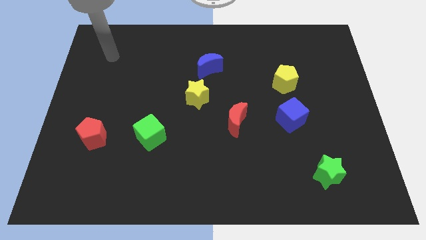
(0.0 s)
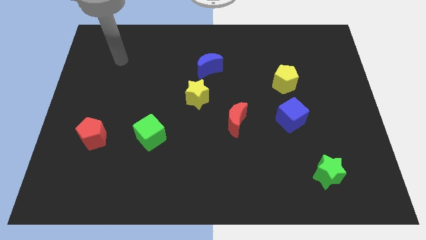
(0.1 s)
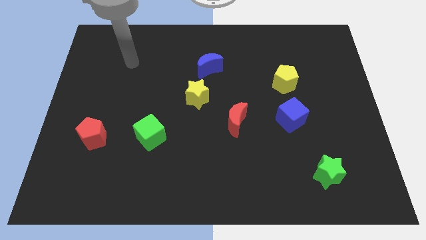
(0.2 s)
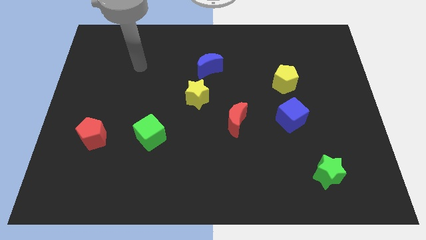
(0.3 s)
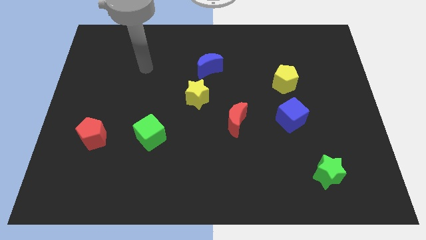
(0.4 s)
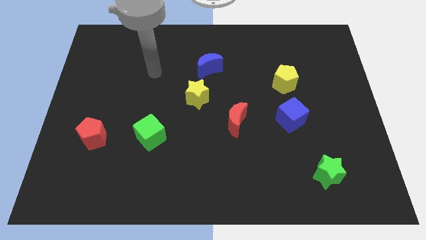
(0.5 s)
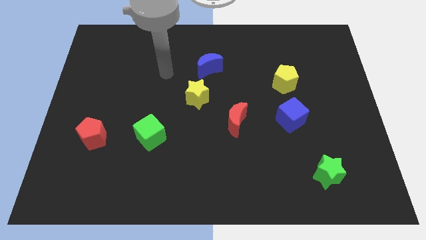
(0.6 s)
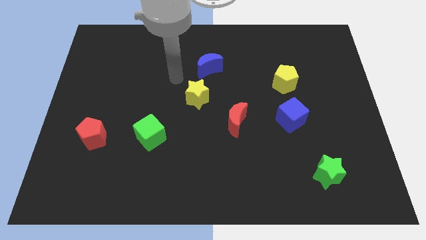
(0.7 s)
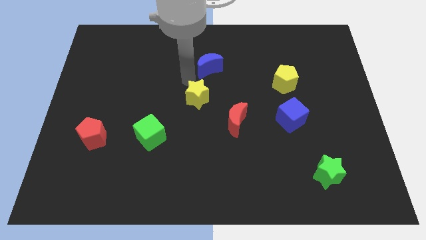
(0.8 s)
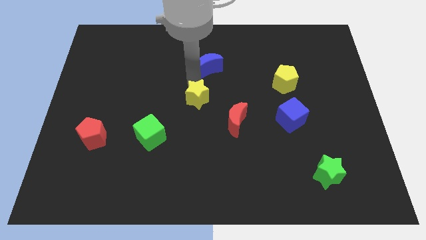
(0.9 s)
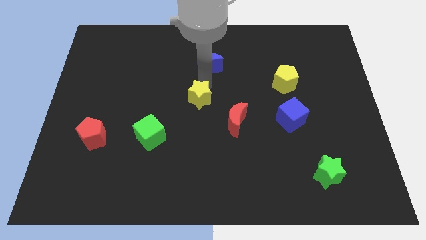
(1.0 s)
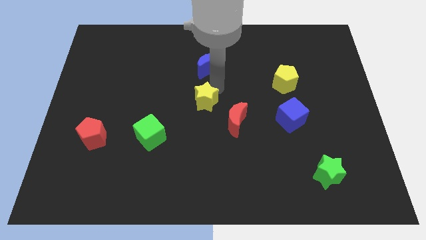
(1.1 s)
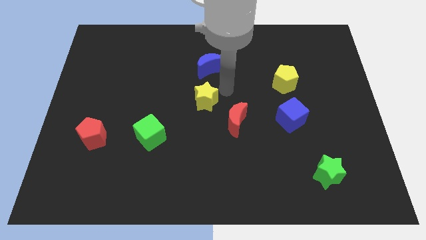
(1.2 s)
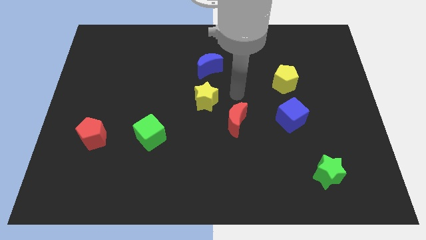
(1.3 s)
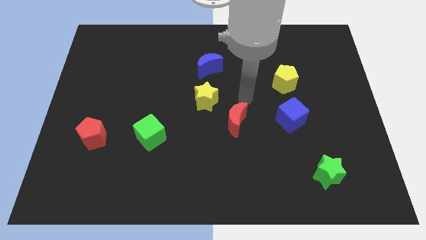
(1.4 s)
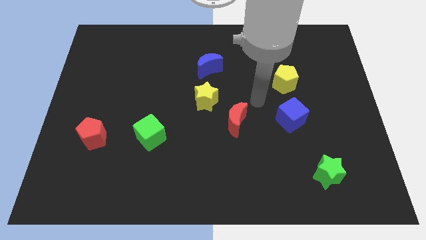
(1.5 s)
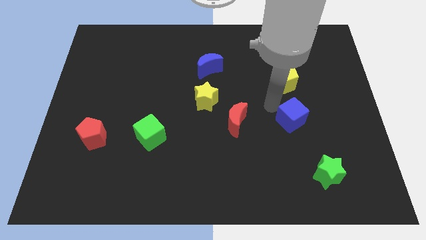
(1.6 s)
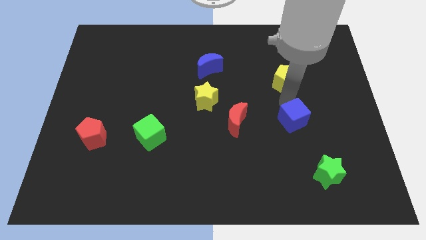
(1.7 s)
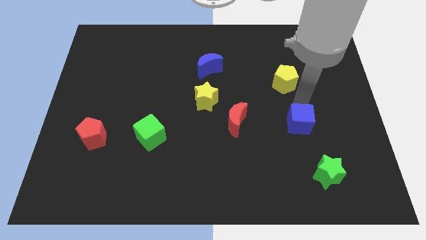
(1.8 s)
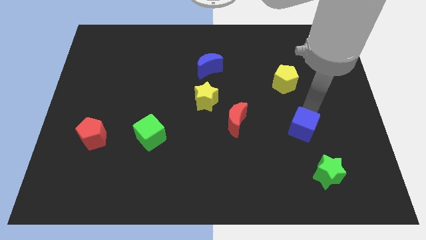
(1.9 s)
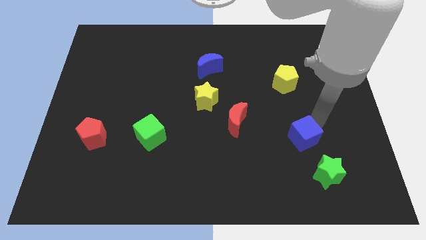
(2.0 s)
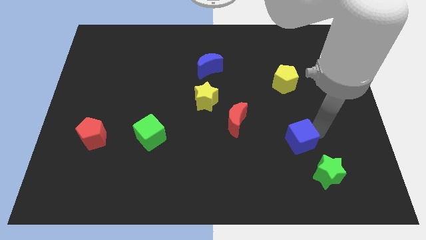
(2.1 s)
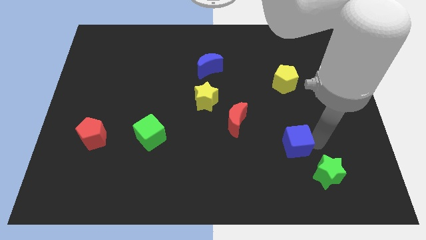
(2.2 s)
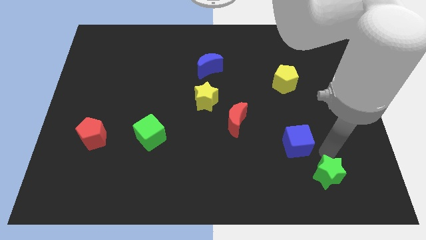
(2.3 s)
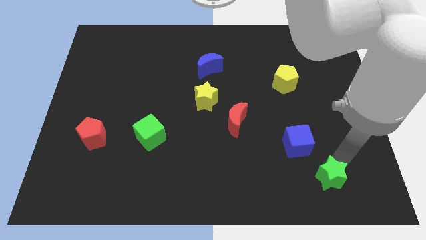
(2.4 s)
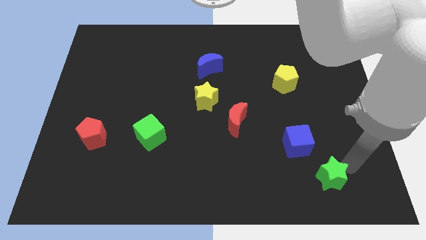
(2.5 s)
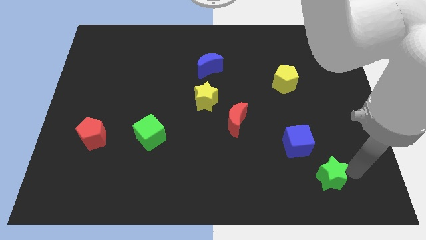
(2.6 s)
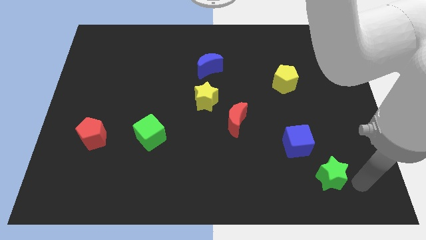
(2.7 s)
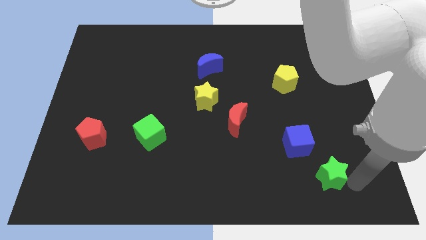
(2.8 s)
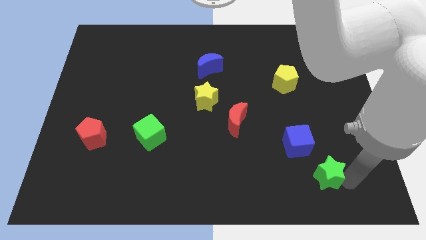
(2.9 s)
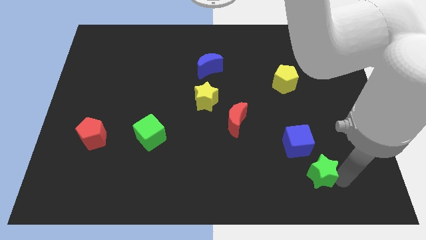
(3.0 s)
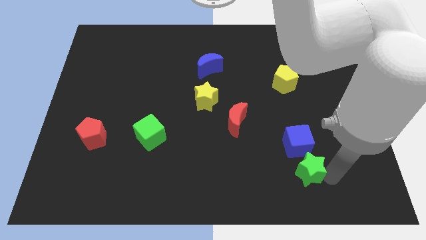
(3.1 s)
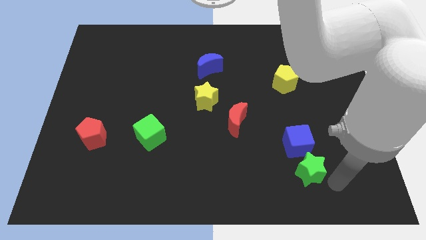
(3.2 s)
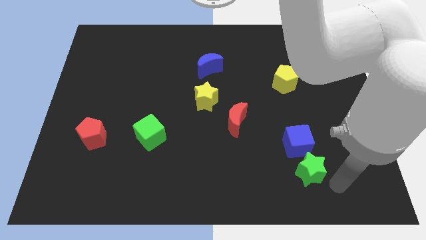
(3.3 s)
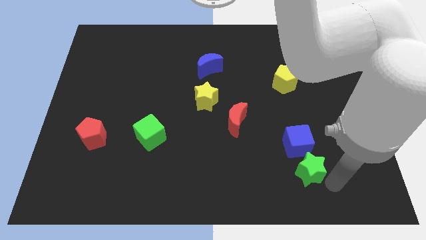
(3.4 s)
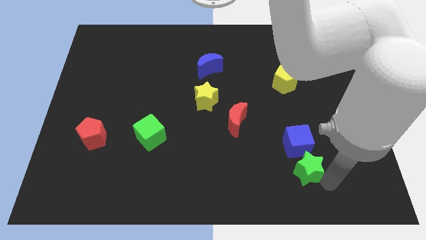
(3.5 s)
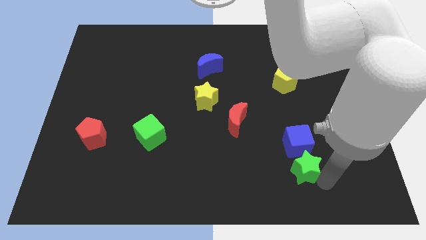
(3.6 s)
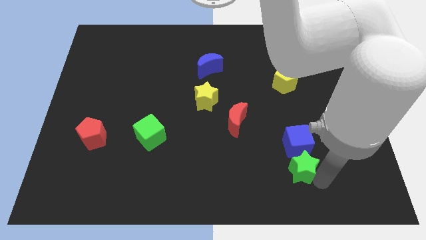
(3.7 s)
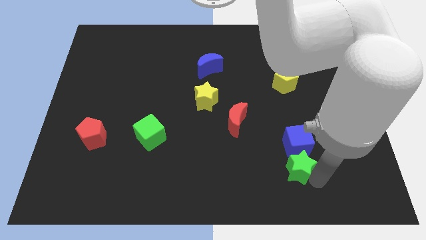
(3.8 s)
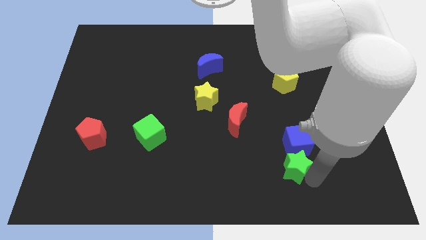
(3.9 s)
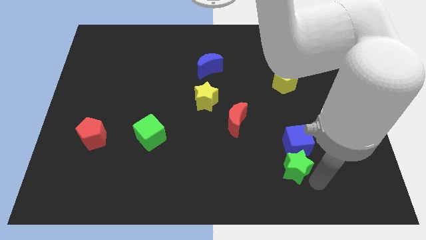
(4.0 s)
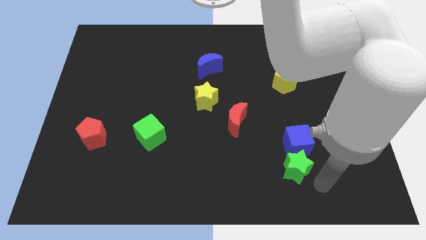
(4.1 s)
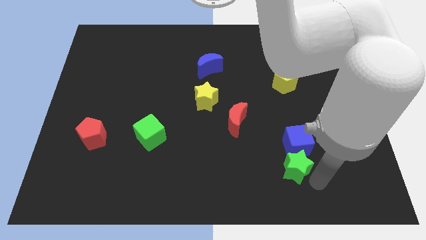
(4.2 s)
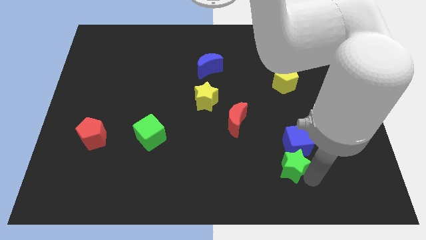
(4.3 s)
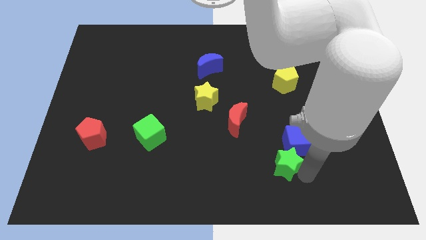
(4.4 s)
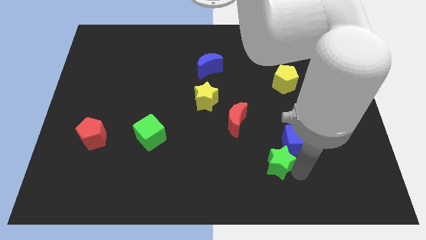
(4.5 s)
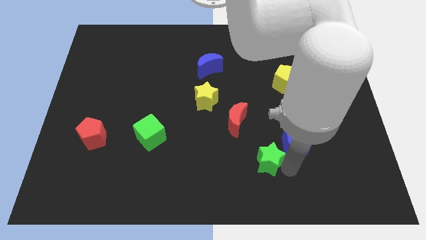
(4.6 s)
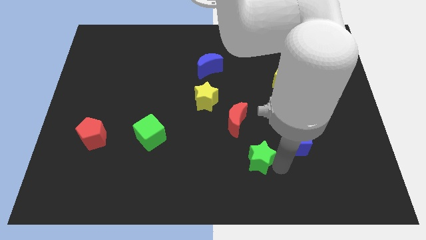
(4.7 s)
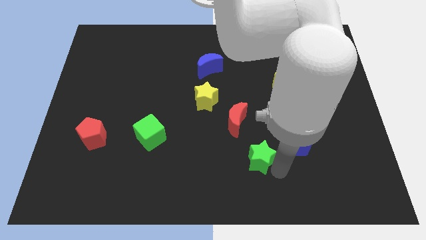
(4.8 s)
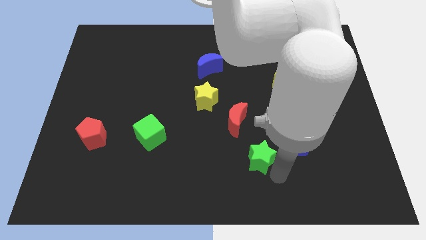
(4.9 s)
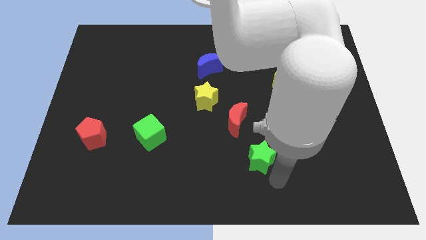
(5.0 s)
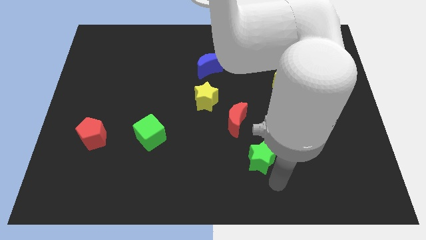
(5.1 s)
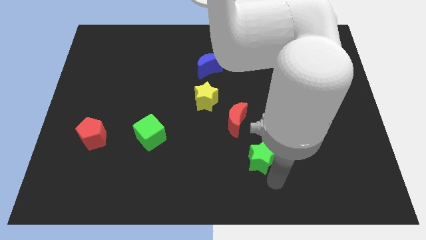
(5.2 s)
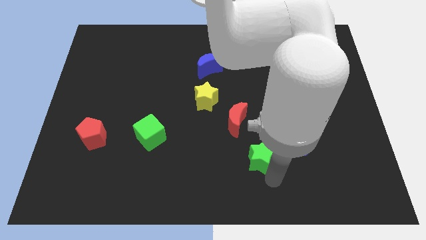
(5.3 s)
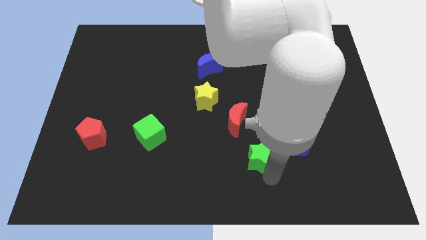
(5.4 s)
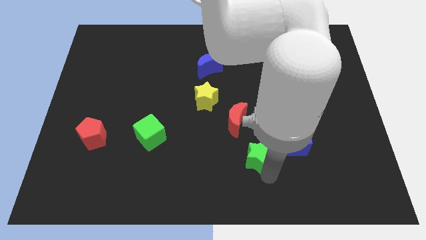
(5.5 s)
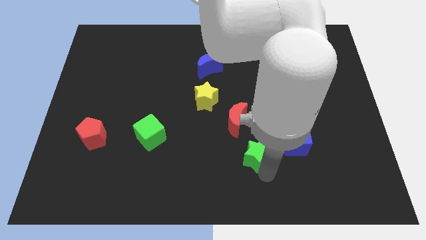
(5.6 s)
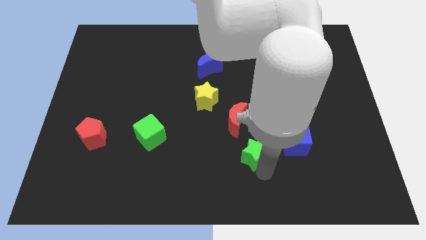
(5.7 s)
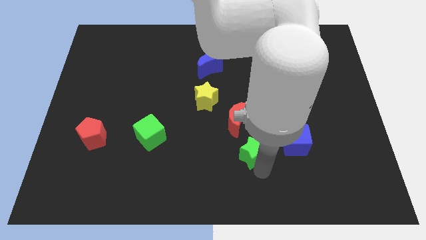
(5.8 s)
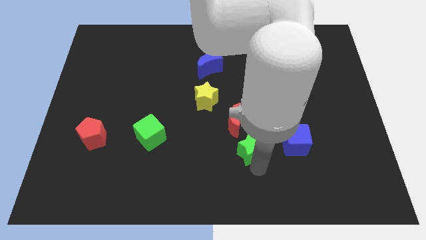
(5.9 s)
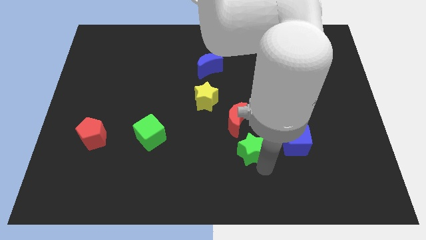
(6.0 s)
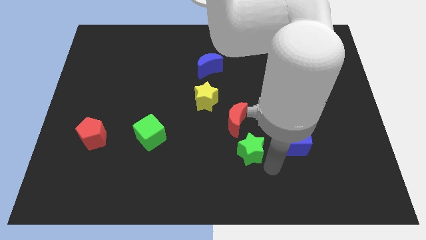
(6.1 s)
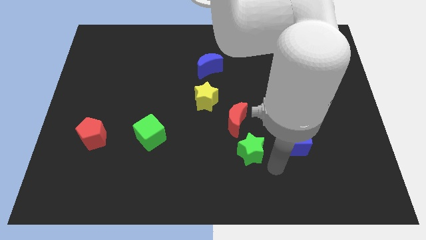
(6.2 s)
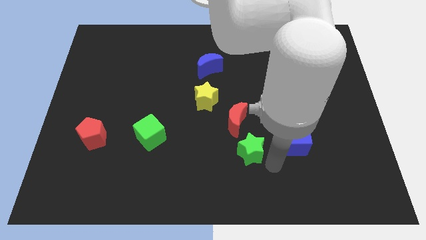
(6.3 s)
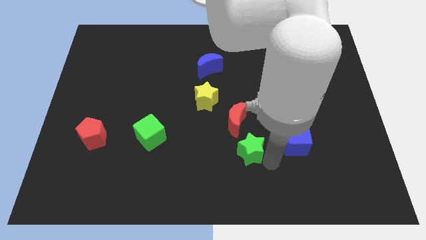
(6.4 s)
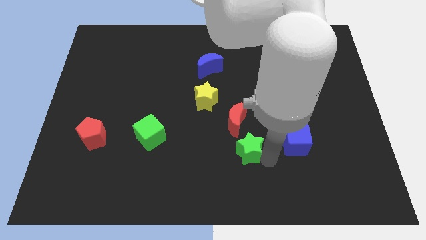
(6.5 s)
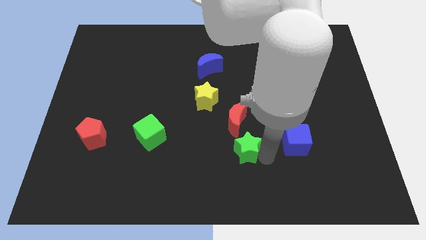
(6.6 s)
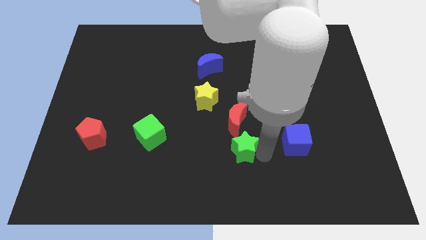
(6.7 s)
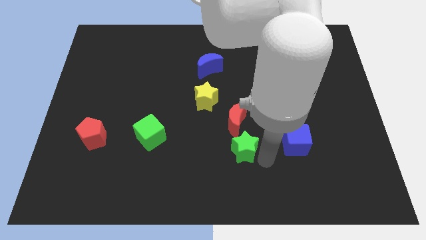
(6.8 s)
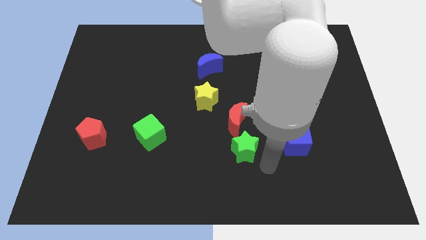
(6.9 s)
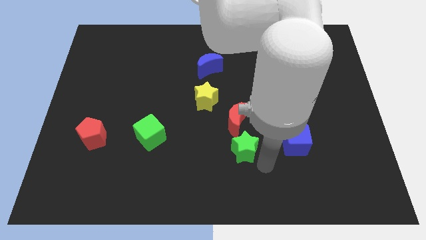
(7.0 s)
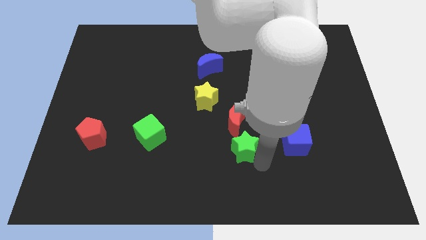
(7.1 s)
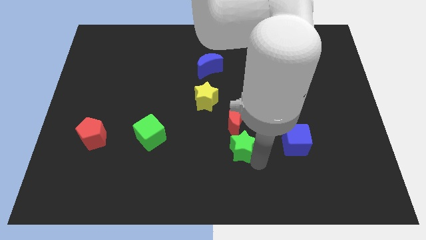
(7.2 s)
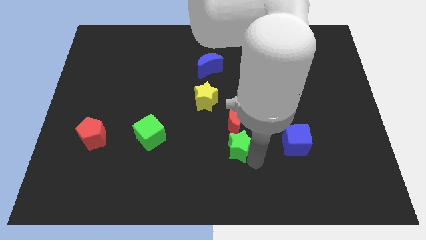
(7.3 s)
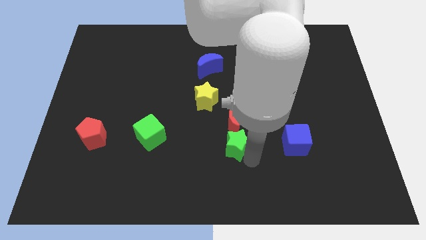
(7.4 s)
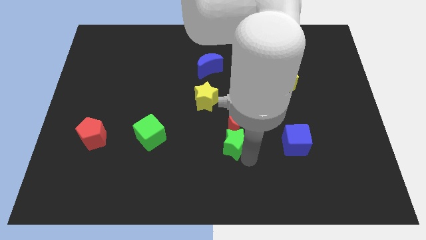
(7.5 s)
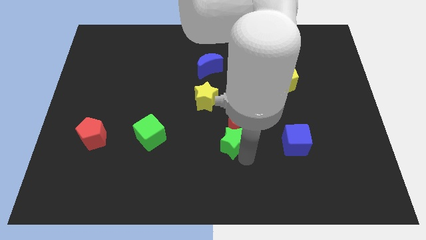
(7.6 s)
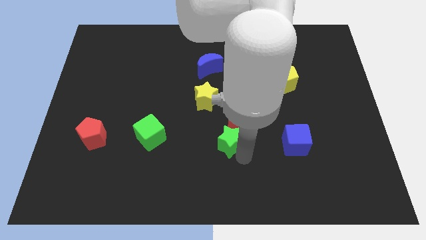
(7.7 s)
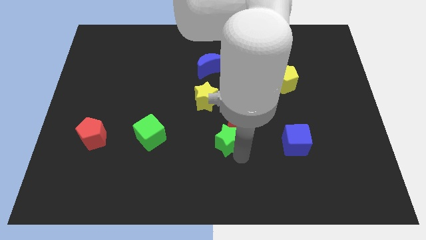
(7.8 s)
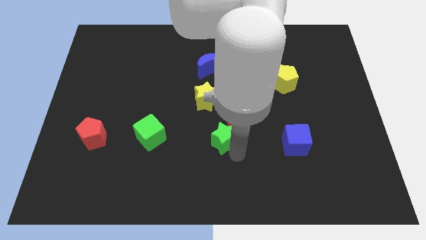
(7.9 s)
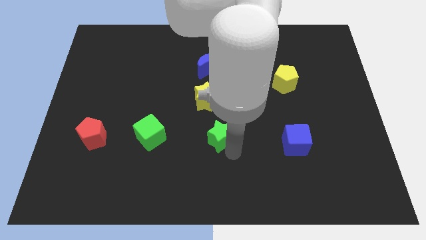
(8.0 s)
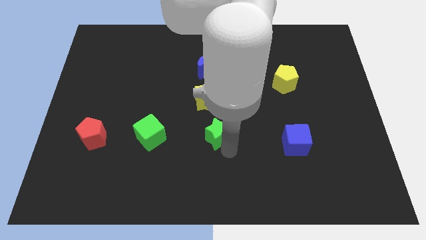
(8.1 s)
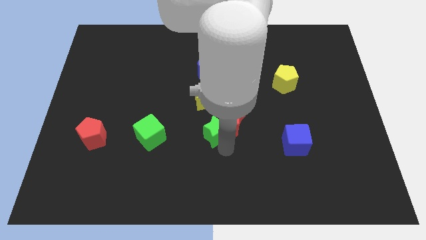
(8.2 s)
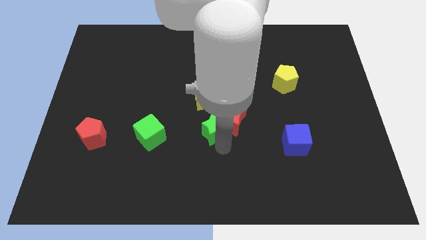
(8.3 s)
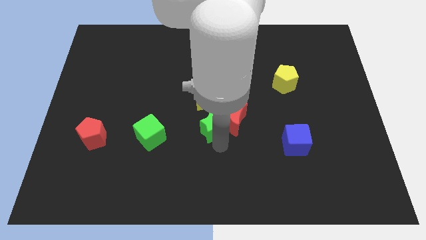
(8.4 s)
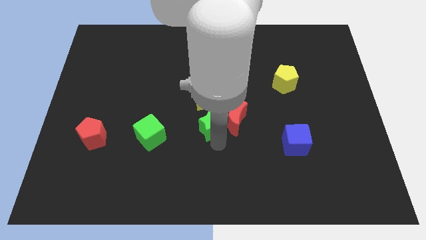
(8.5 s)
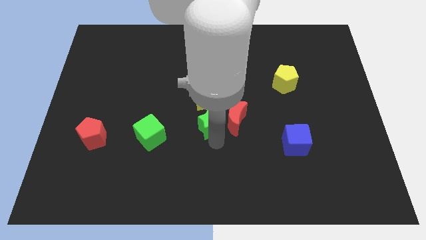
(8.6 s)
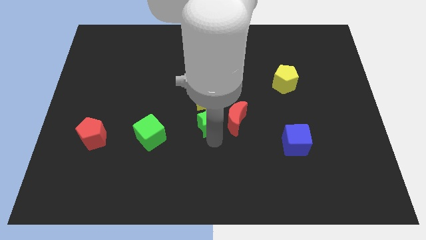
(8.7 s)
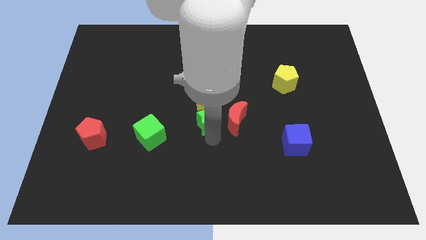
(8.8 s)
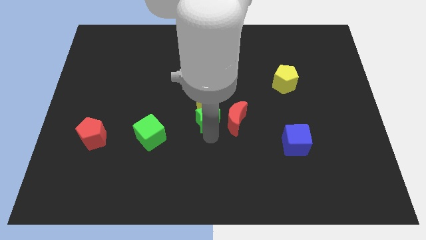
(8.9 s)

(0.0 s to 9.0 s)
slide the green star towards the yellow star
